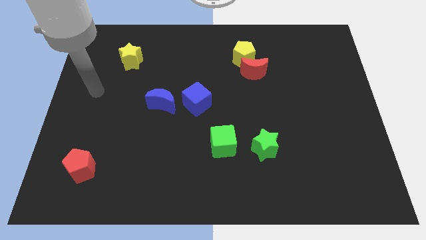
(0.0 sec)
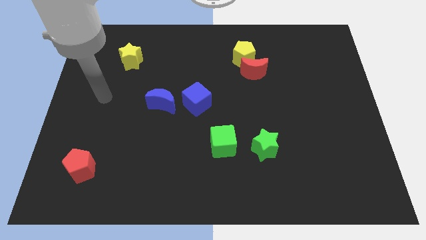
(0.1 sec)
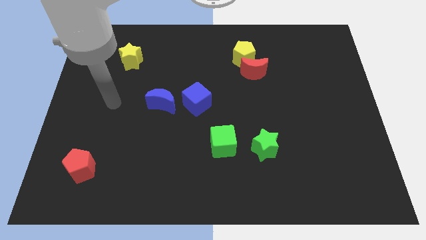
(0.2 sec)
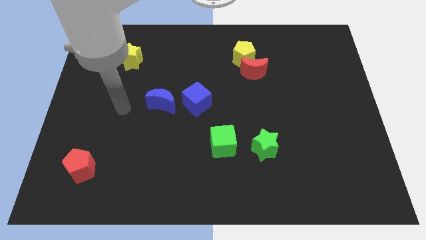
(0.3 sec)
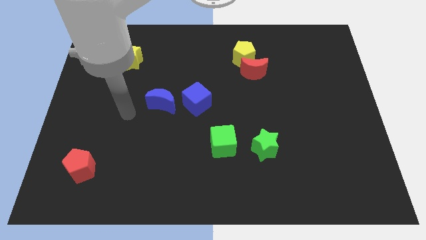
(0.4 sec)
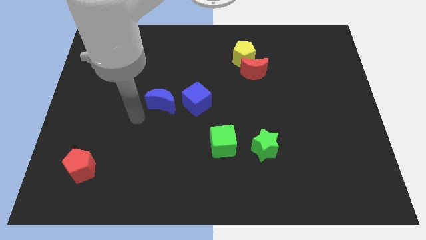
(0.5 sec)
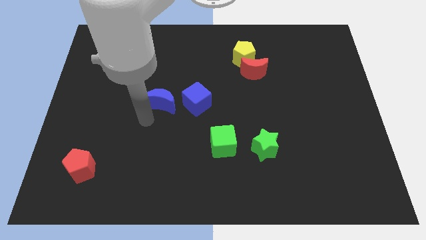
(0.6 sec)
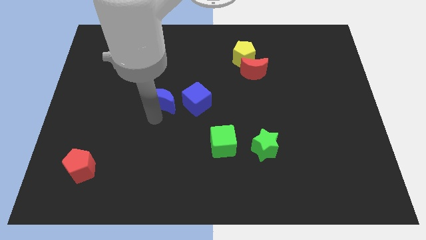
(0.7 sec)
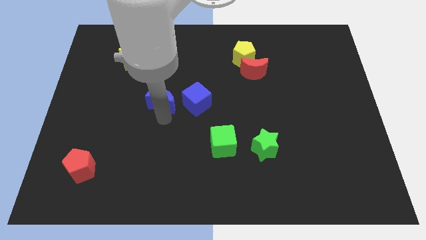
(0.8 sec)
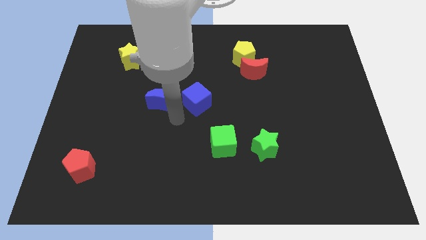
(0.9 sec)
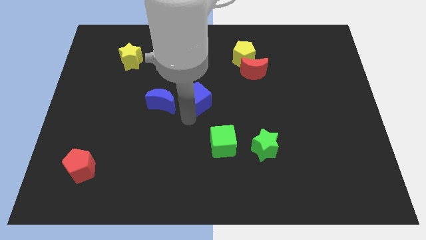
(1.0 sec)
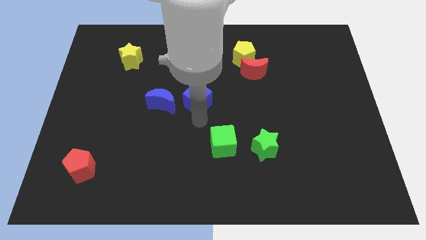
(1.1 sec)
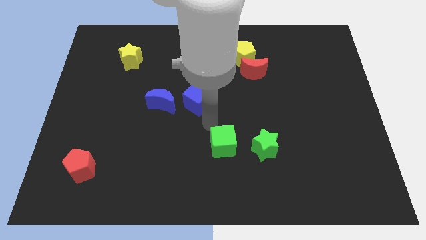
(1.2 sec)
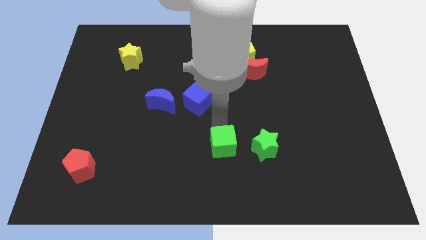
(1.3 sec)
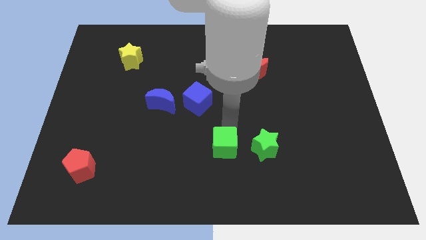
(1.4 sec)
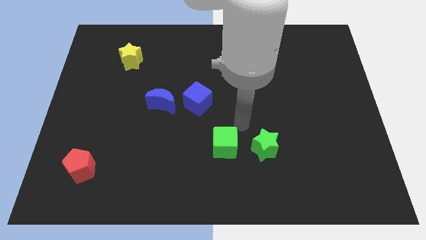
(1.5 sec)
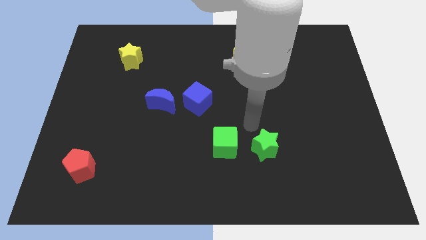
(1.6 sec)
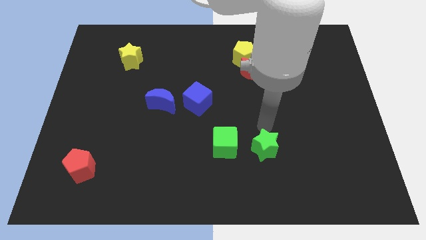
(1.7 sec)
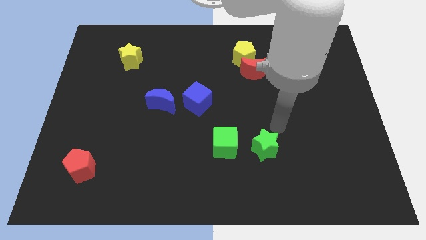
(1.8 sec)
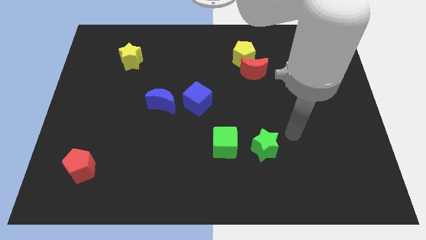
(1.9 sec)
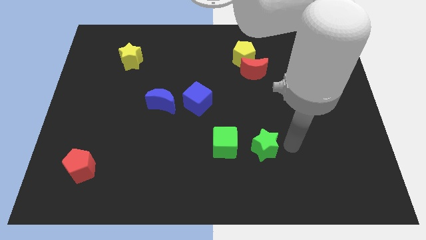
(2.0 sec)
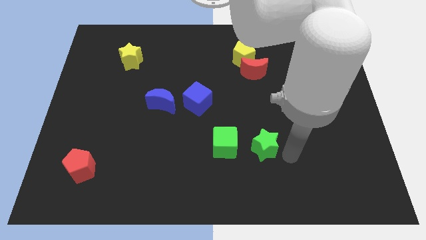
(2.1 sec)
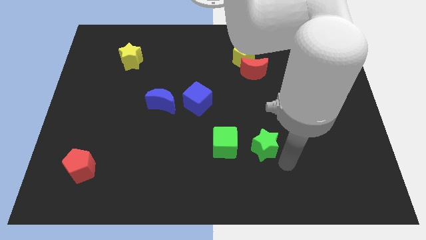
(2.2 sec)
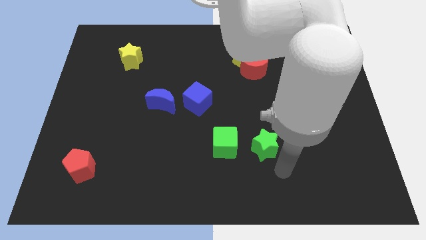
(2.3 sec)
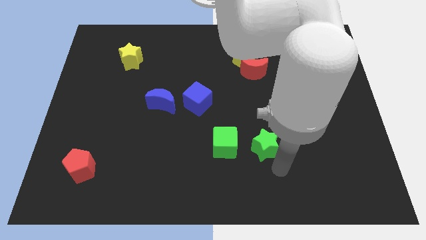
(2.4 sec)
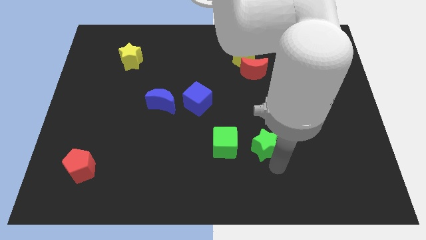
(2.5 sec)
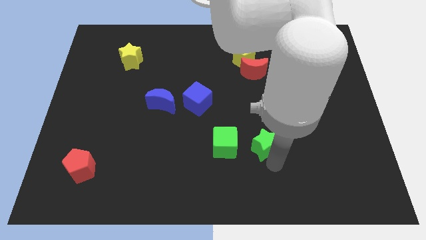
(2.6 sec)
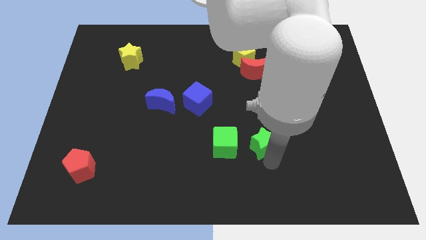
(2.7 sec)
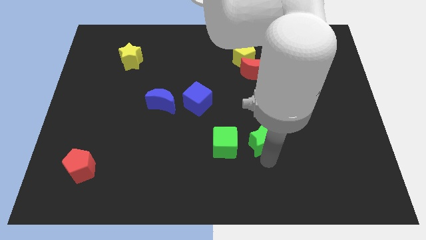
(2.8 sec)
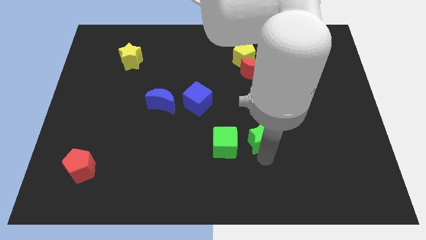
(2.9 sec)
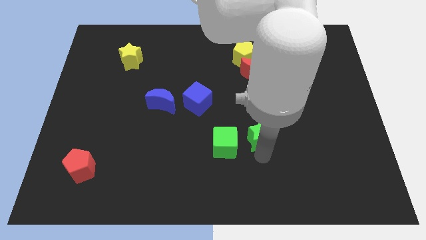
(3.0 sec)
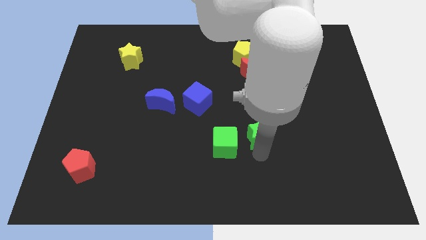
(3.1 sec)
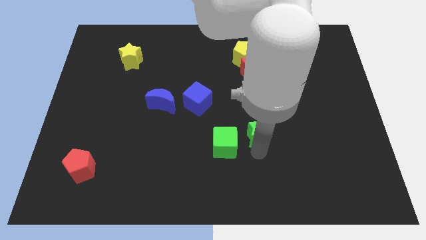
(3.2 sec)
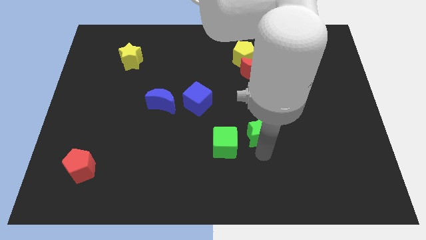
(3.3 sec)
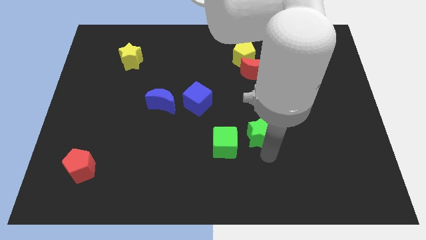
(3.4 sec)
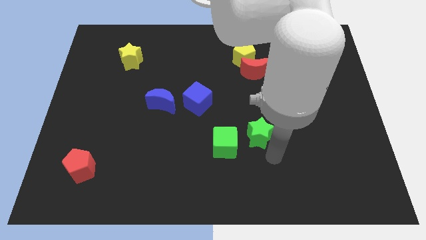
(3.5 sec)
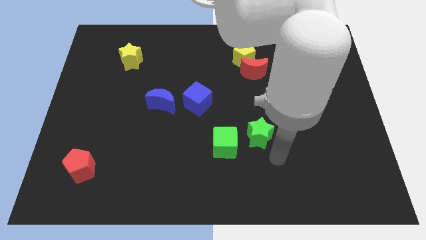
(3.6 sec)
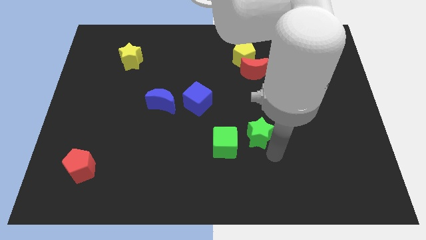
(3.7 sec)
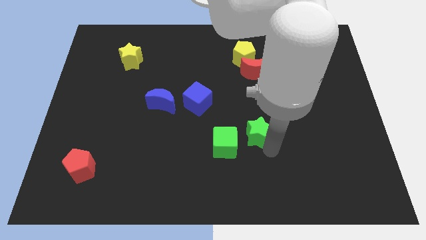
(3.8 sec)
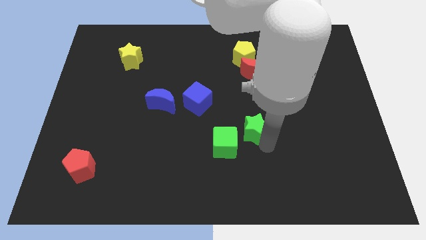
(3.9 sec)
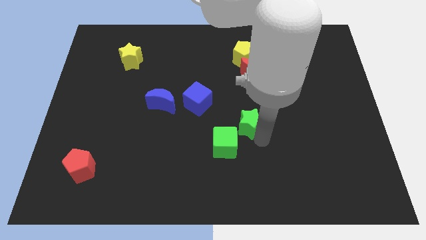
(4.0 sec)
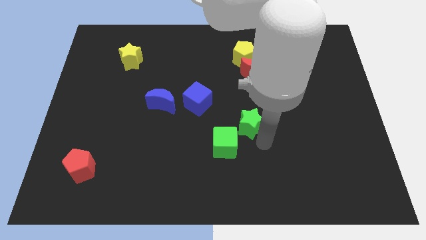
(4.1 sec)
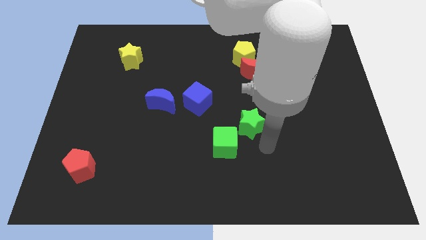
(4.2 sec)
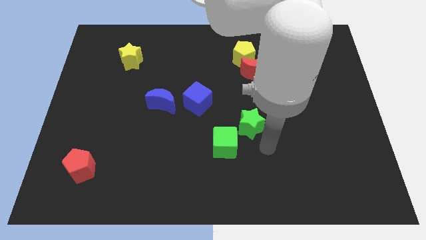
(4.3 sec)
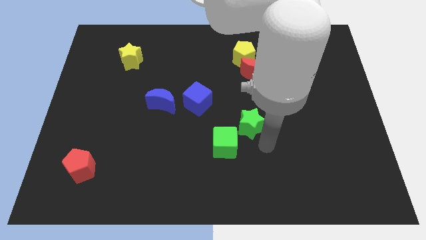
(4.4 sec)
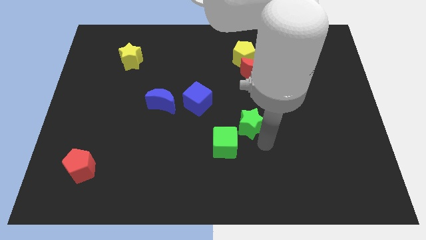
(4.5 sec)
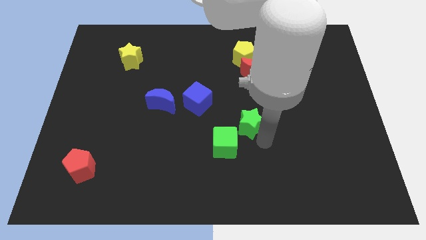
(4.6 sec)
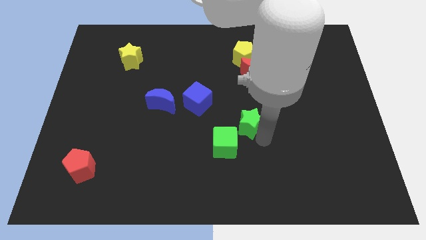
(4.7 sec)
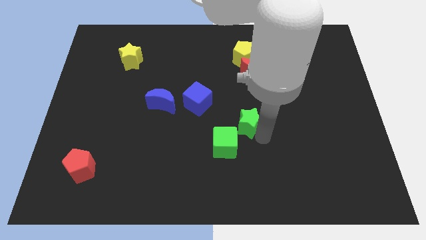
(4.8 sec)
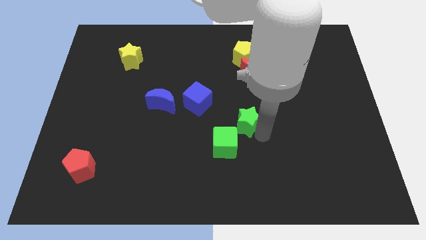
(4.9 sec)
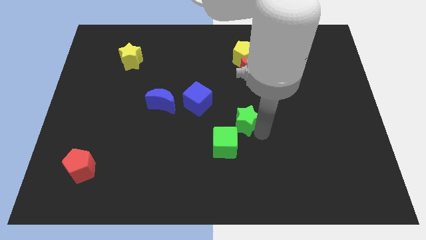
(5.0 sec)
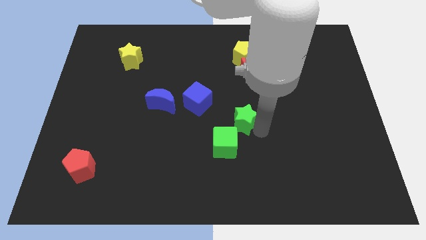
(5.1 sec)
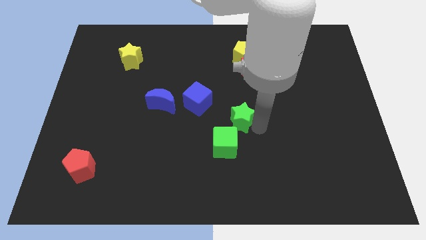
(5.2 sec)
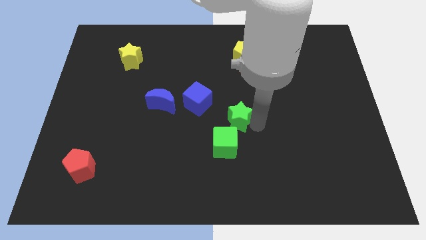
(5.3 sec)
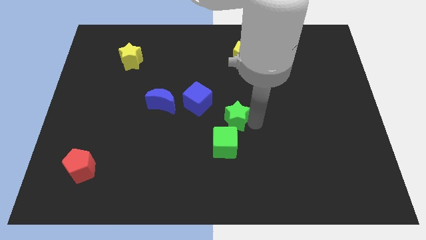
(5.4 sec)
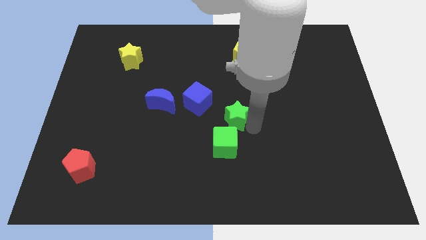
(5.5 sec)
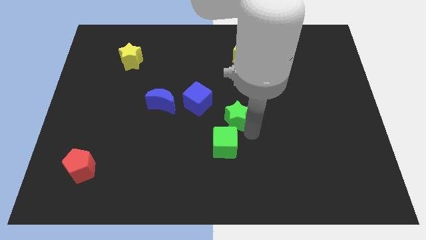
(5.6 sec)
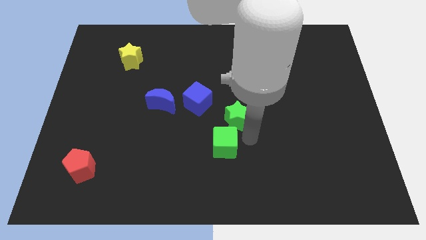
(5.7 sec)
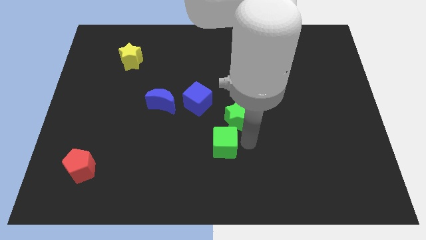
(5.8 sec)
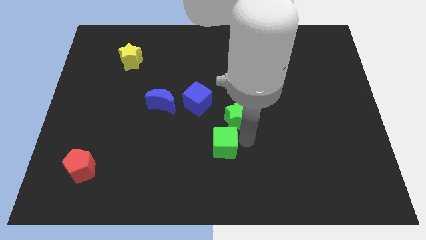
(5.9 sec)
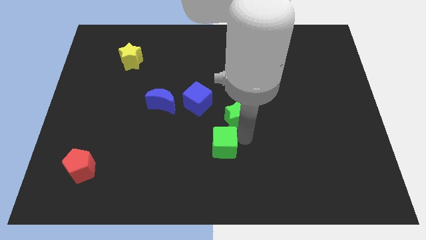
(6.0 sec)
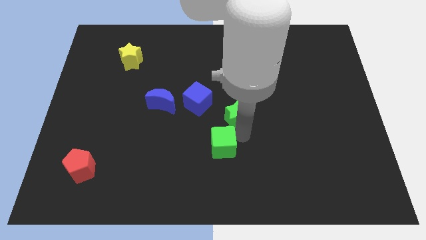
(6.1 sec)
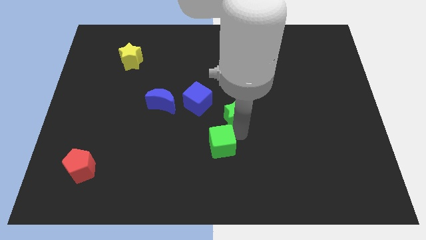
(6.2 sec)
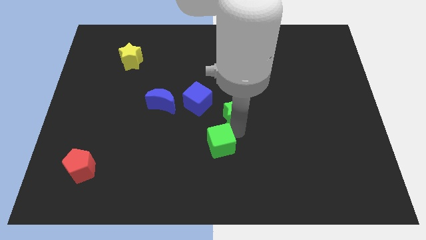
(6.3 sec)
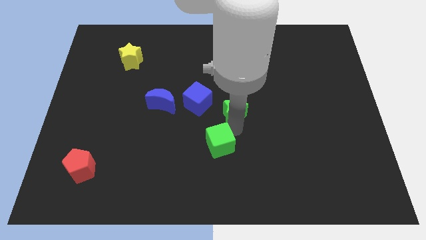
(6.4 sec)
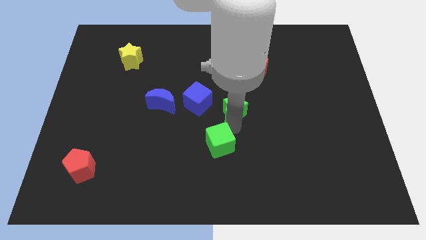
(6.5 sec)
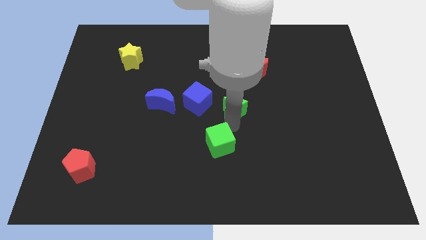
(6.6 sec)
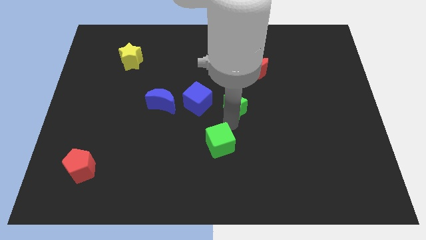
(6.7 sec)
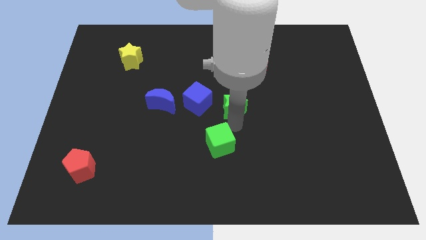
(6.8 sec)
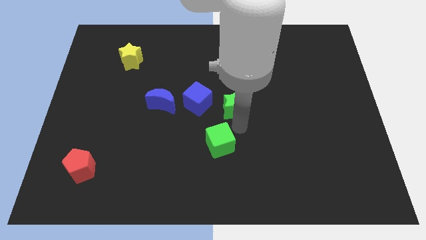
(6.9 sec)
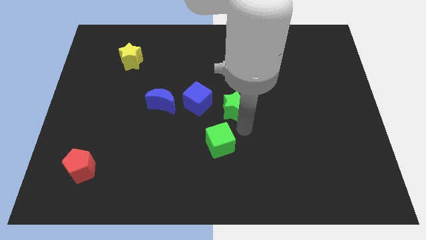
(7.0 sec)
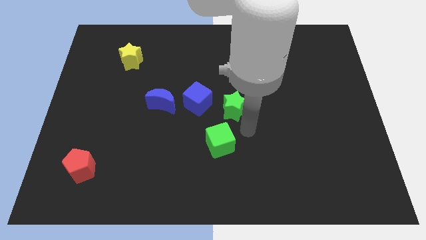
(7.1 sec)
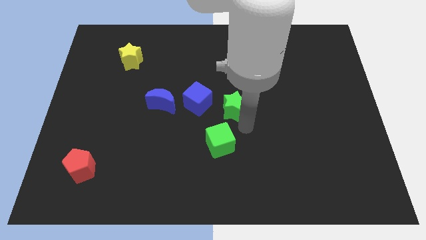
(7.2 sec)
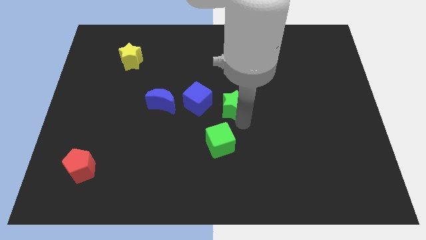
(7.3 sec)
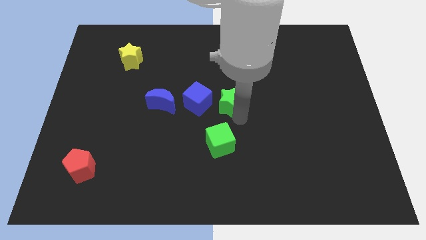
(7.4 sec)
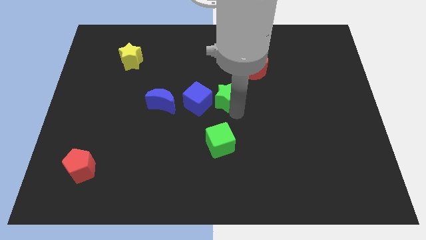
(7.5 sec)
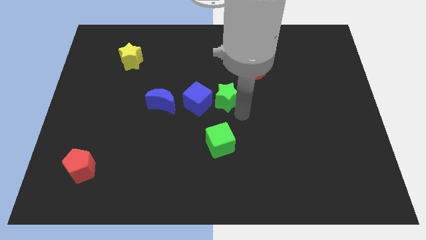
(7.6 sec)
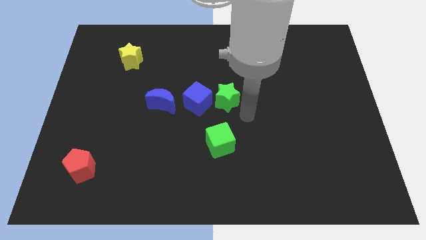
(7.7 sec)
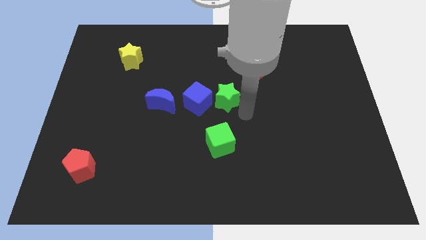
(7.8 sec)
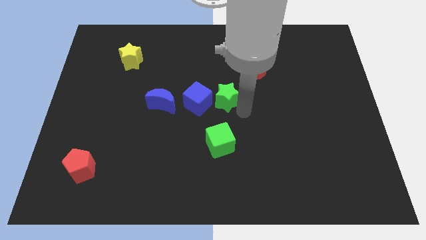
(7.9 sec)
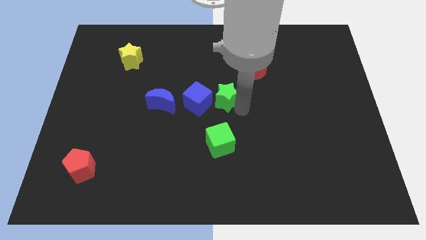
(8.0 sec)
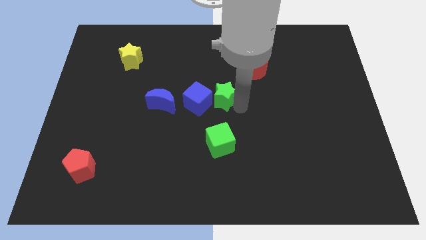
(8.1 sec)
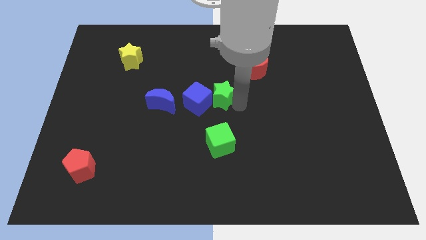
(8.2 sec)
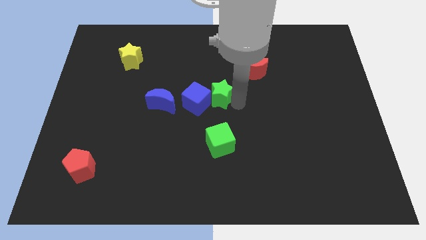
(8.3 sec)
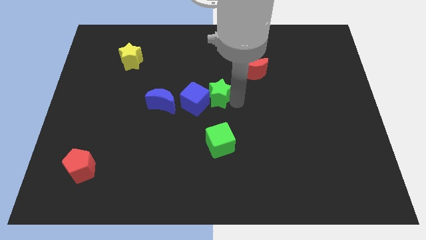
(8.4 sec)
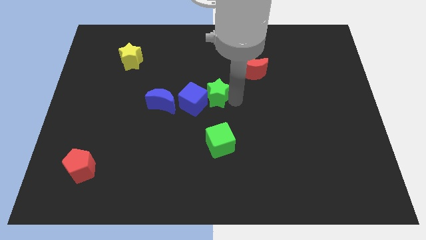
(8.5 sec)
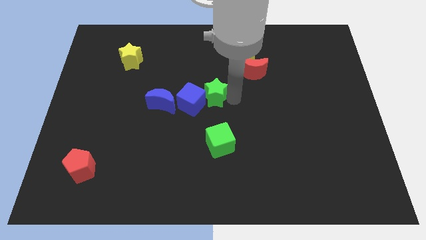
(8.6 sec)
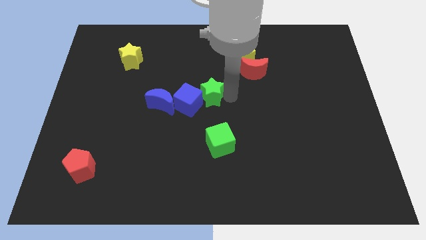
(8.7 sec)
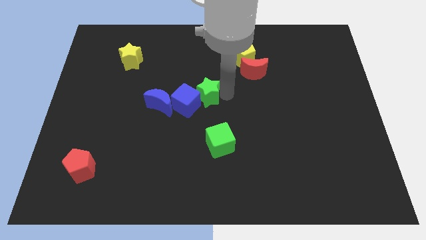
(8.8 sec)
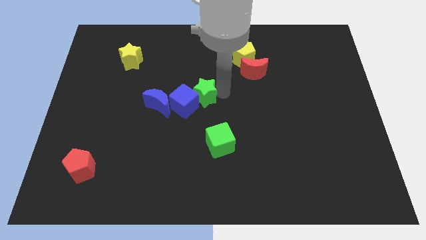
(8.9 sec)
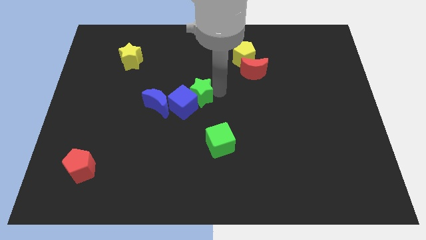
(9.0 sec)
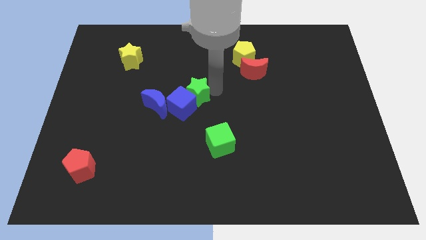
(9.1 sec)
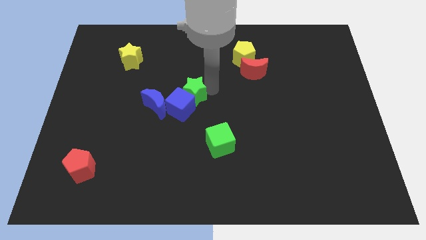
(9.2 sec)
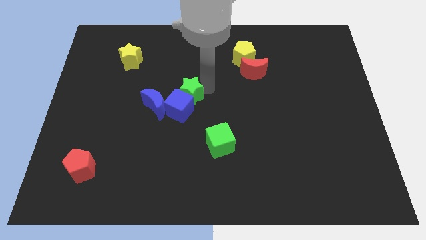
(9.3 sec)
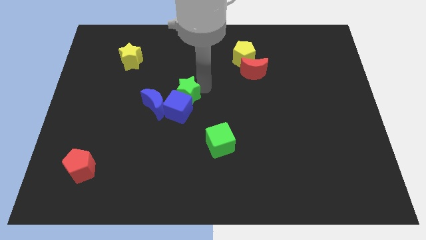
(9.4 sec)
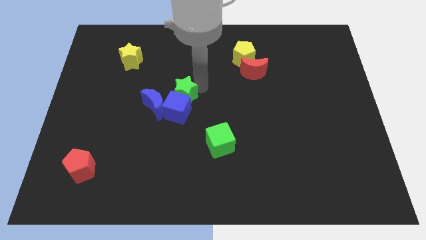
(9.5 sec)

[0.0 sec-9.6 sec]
put the green star to the top left of the blue cube
